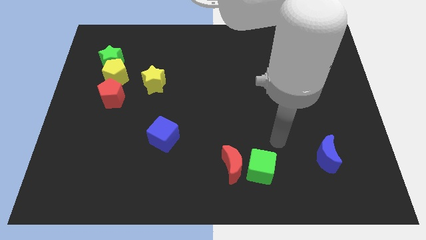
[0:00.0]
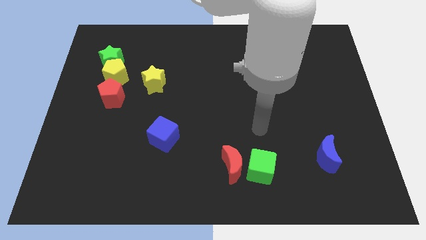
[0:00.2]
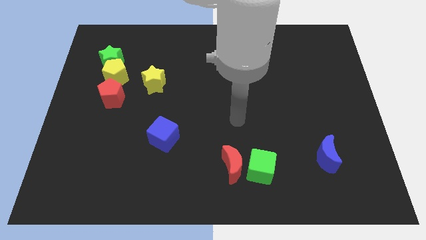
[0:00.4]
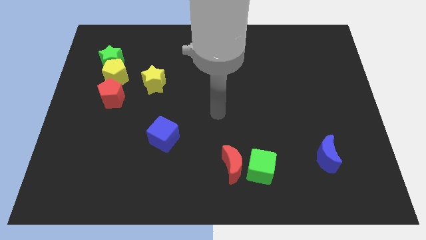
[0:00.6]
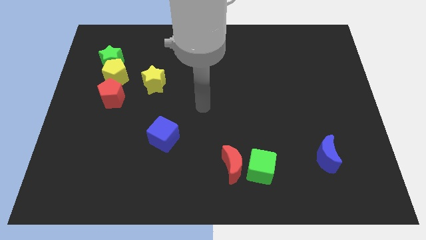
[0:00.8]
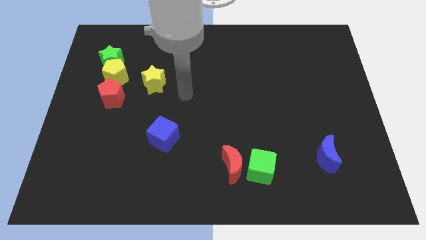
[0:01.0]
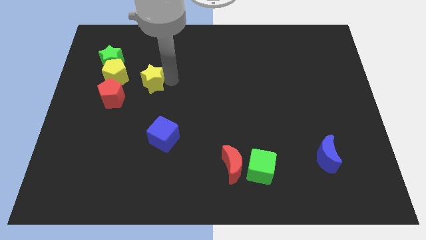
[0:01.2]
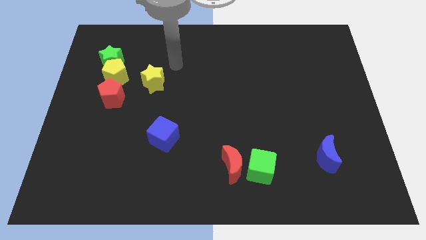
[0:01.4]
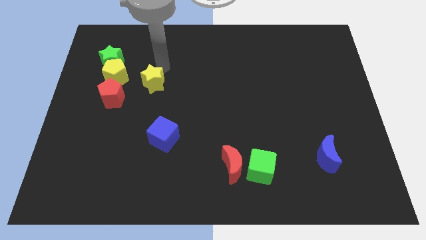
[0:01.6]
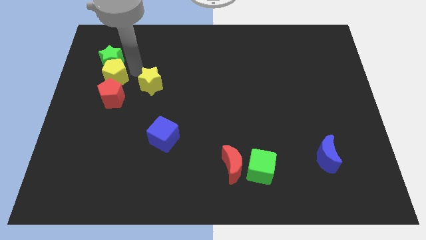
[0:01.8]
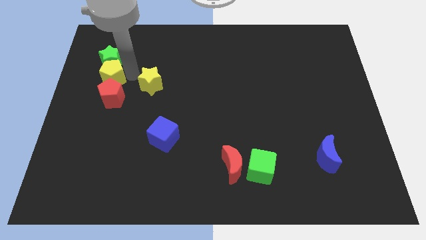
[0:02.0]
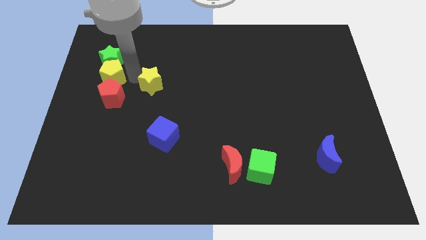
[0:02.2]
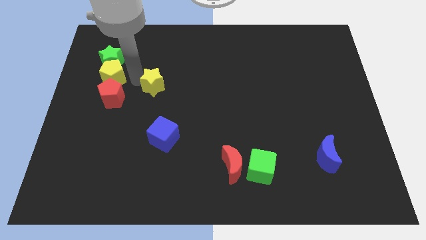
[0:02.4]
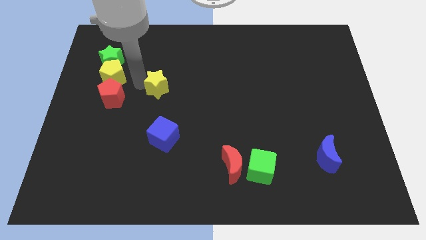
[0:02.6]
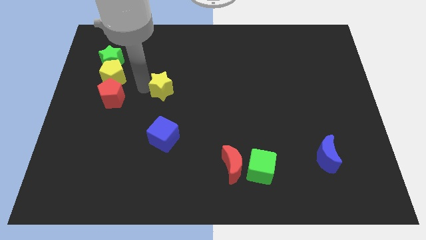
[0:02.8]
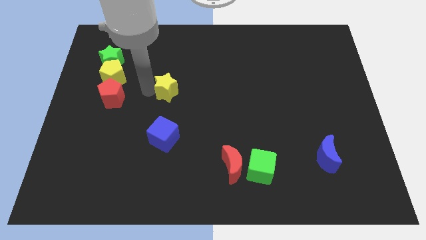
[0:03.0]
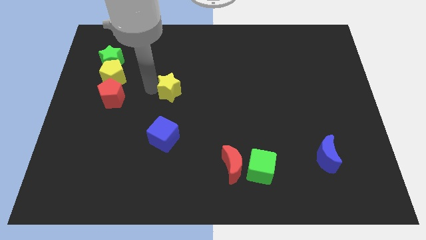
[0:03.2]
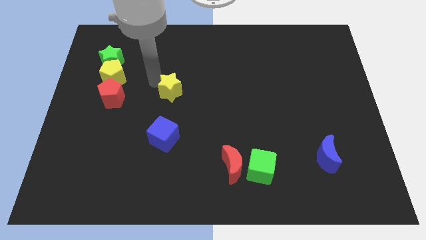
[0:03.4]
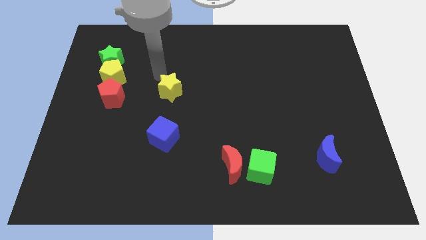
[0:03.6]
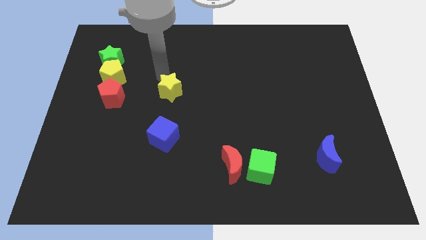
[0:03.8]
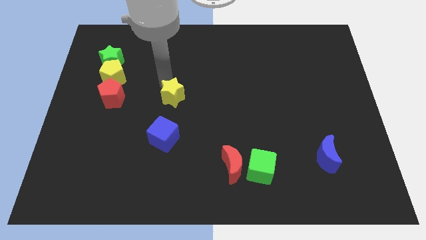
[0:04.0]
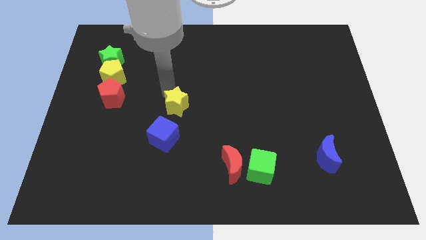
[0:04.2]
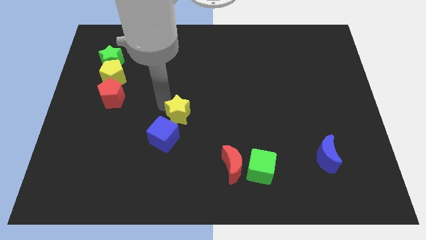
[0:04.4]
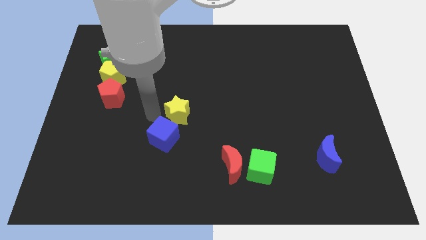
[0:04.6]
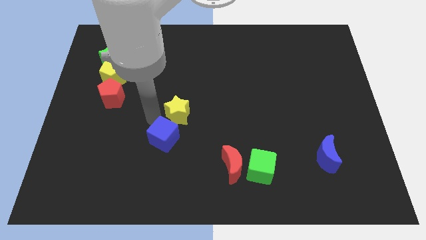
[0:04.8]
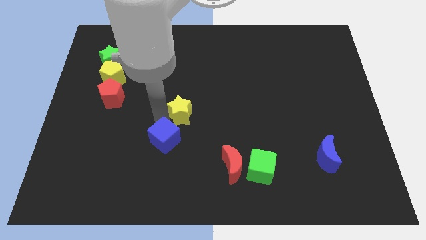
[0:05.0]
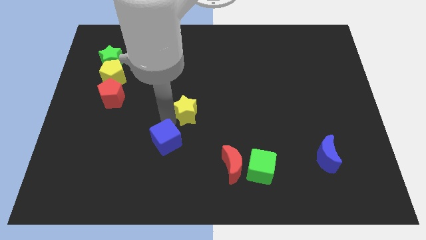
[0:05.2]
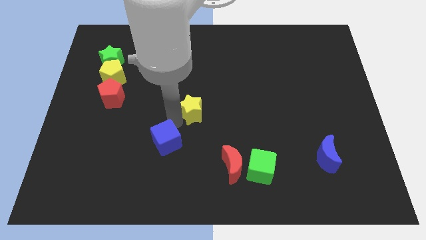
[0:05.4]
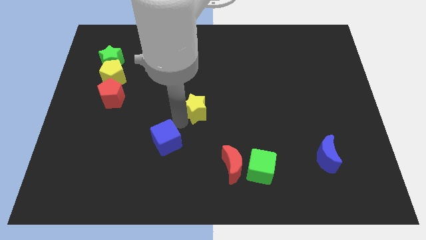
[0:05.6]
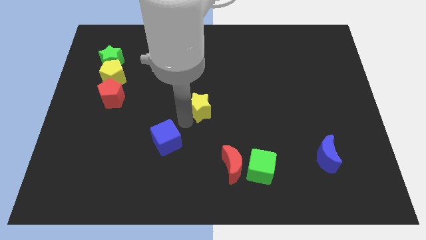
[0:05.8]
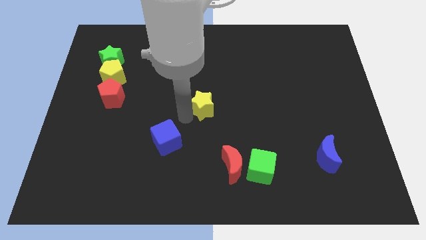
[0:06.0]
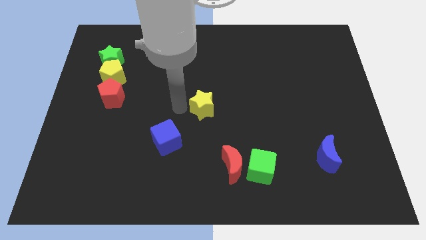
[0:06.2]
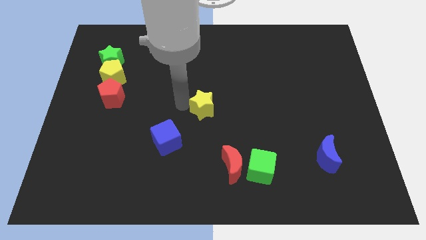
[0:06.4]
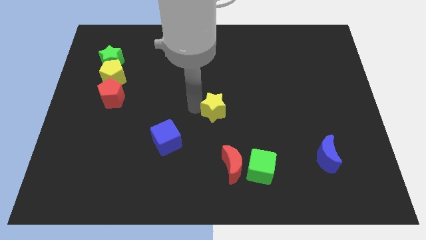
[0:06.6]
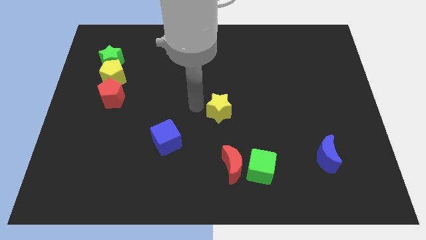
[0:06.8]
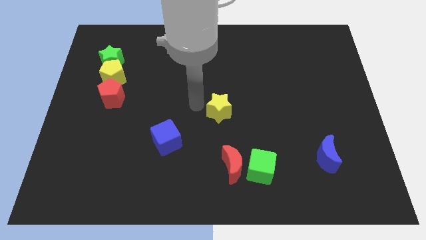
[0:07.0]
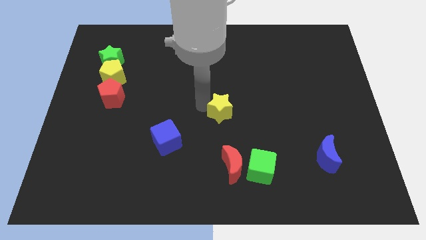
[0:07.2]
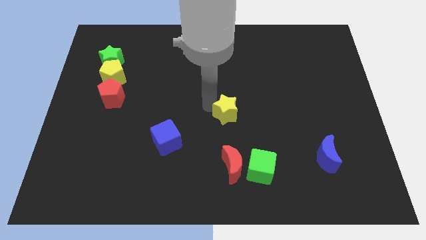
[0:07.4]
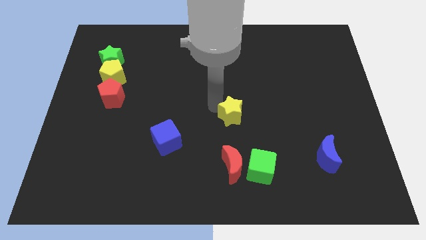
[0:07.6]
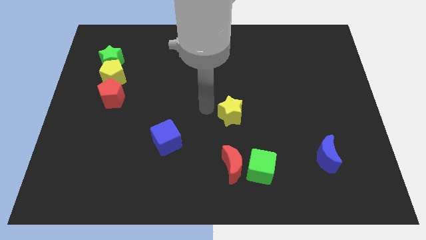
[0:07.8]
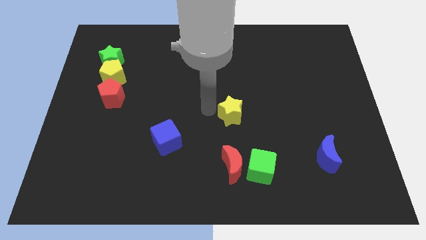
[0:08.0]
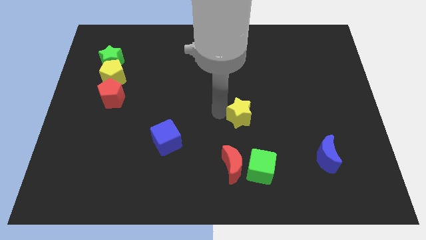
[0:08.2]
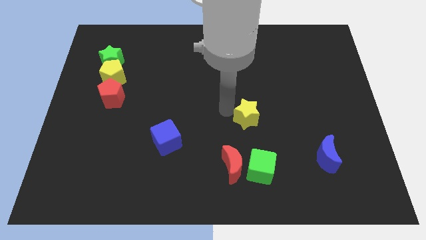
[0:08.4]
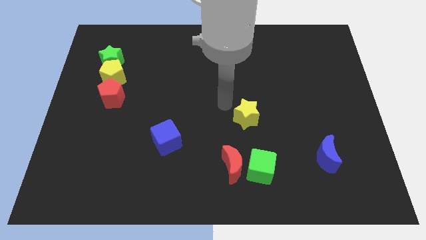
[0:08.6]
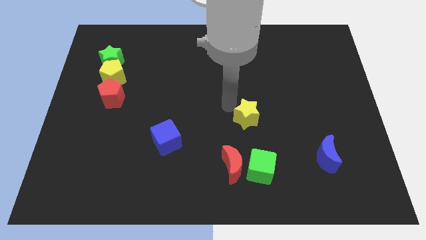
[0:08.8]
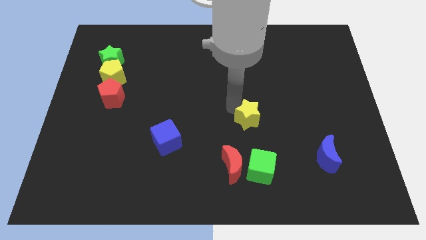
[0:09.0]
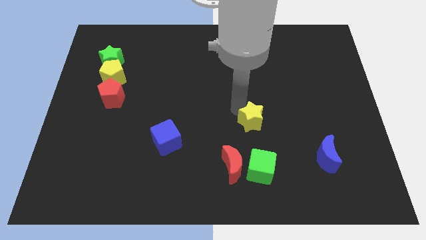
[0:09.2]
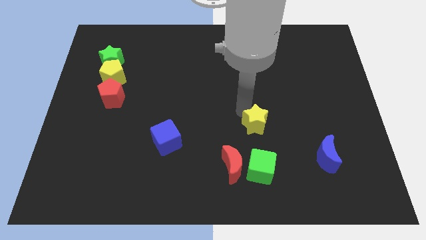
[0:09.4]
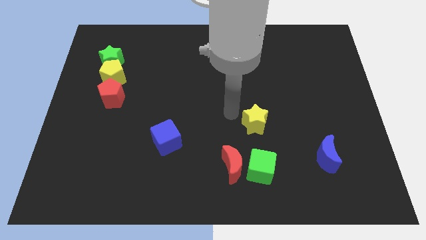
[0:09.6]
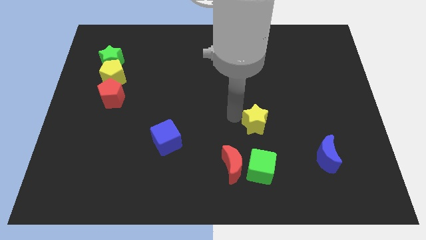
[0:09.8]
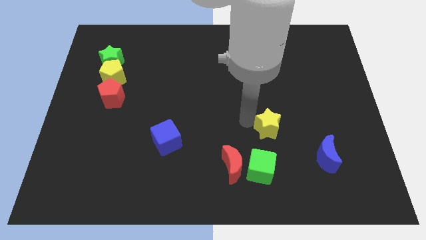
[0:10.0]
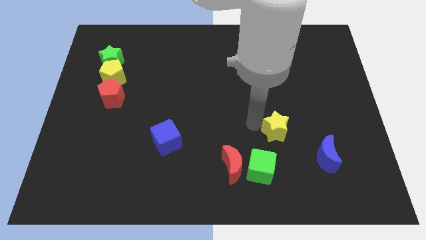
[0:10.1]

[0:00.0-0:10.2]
slide the yellow star to the top left of the blue moon

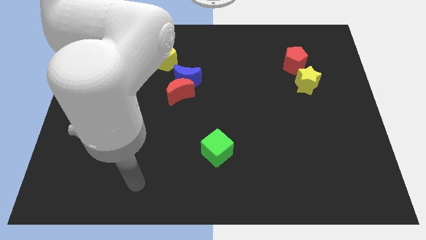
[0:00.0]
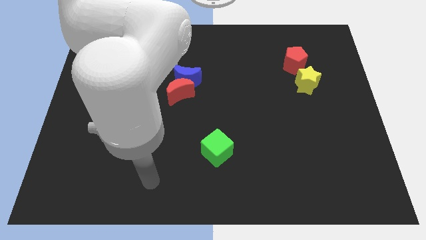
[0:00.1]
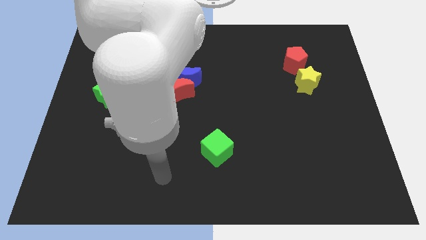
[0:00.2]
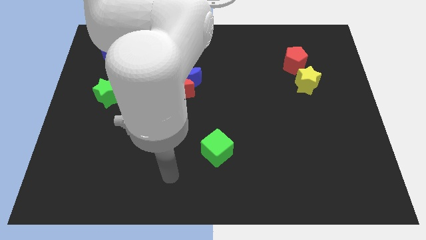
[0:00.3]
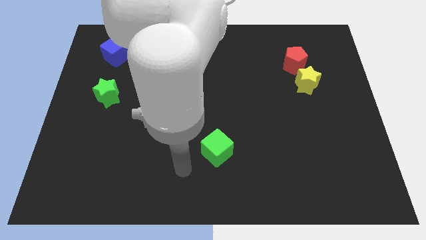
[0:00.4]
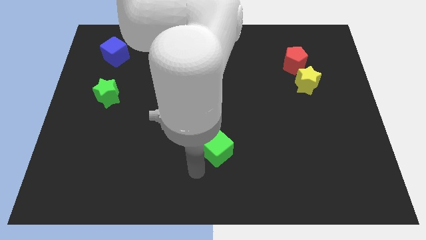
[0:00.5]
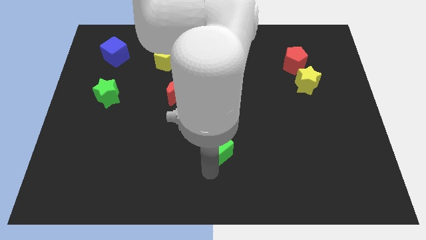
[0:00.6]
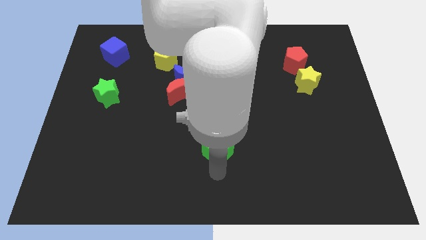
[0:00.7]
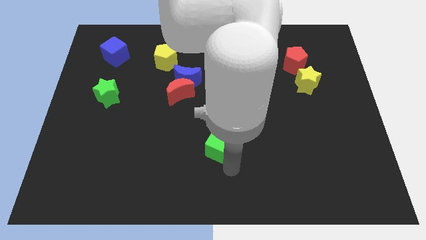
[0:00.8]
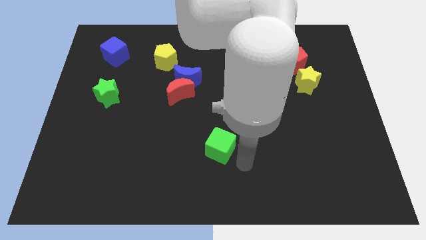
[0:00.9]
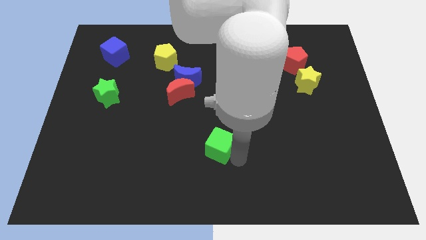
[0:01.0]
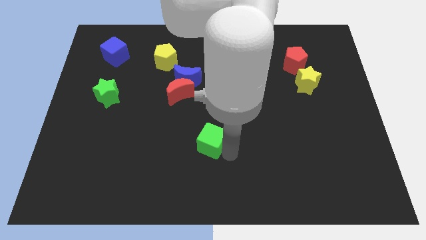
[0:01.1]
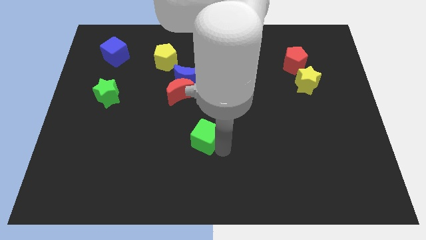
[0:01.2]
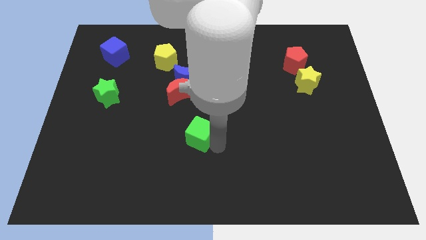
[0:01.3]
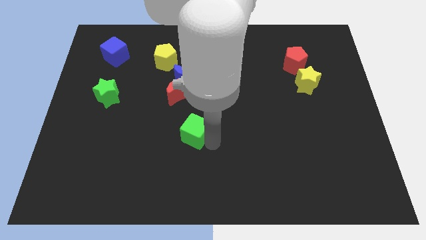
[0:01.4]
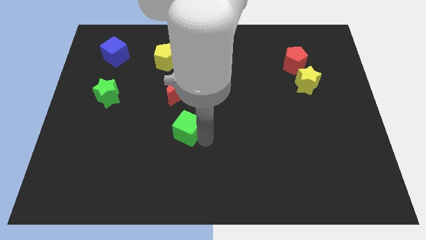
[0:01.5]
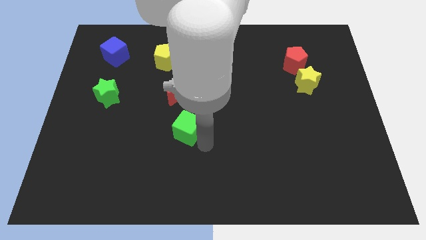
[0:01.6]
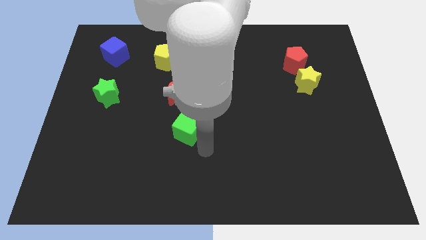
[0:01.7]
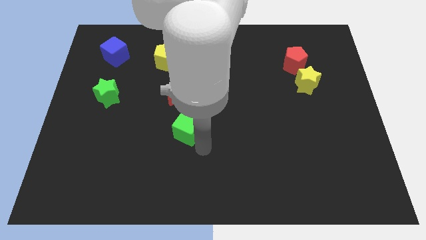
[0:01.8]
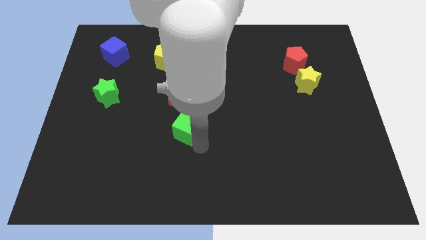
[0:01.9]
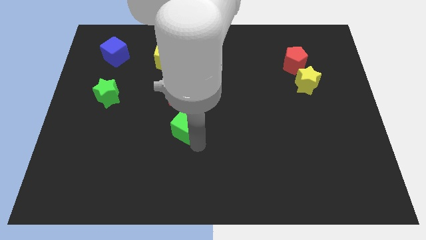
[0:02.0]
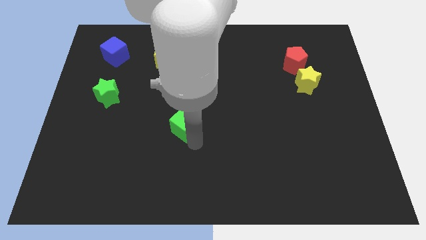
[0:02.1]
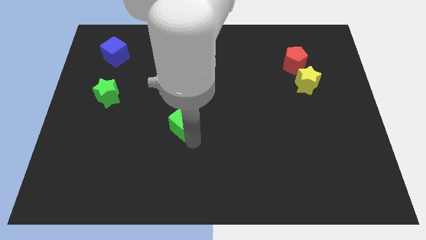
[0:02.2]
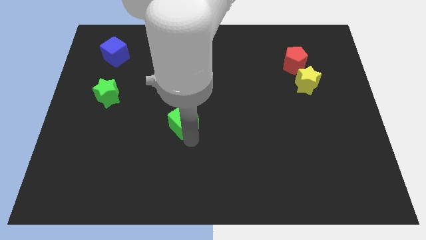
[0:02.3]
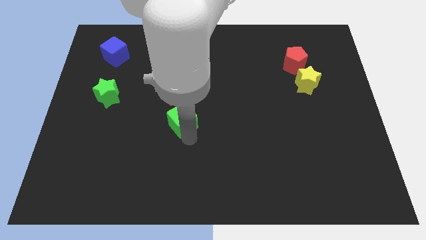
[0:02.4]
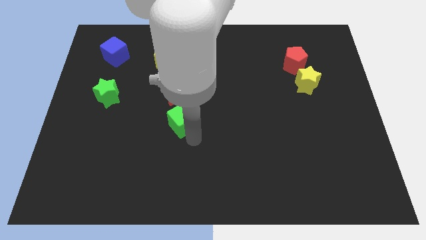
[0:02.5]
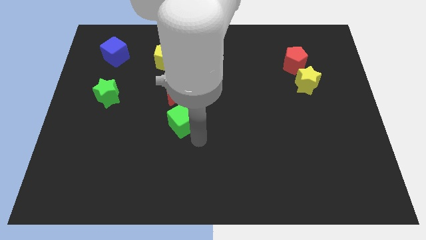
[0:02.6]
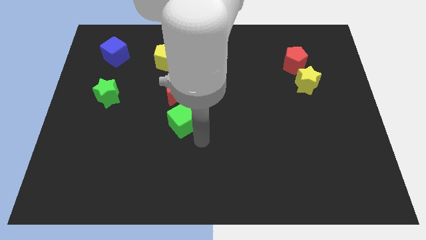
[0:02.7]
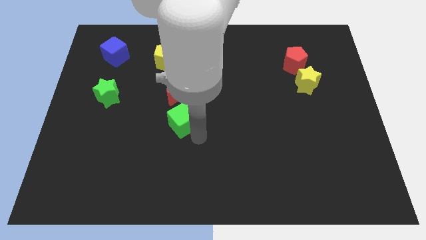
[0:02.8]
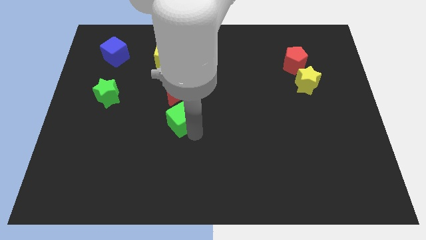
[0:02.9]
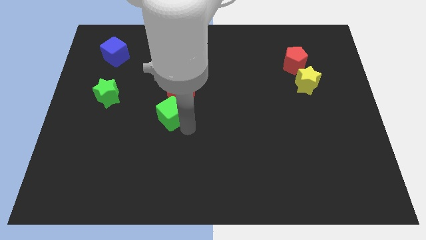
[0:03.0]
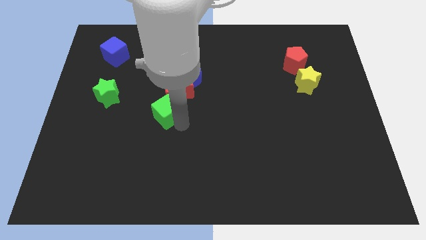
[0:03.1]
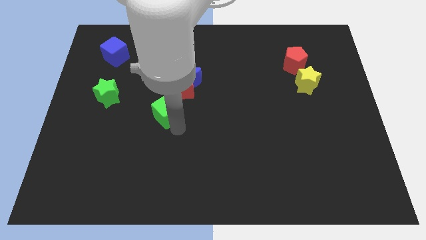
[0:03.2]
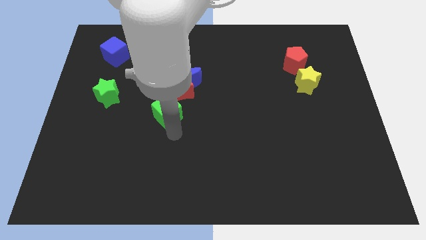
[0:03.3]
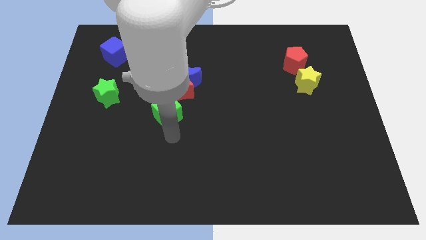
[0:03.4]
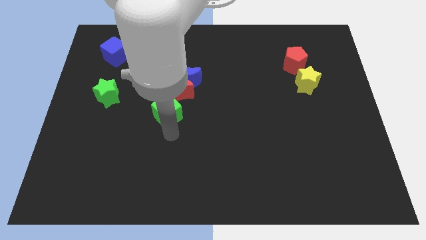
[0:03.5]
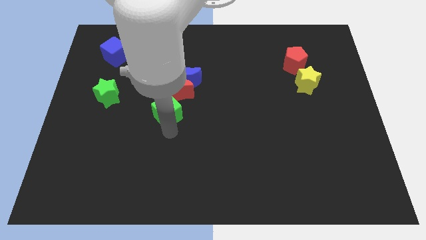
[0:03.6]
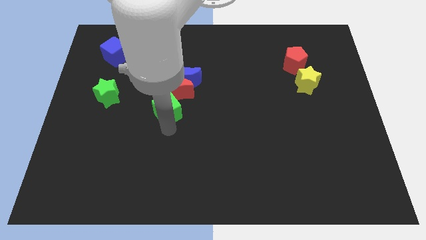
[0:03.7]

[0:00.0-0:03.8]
push the green cube diagonally down and to the left of the blue moon
